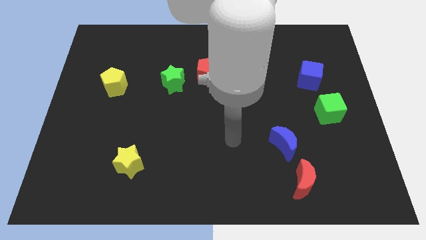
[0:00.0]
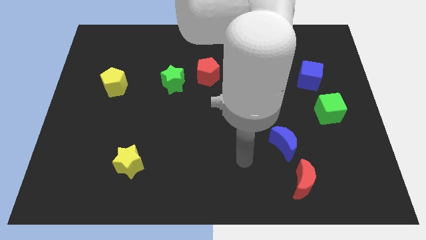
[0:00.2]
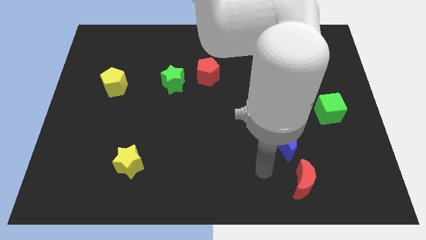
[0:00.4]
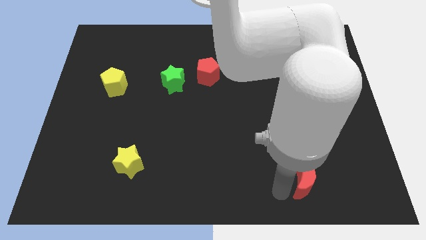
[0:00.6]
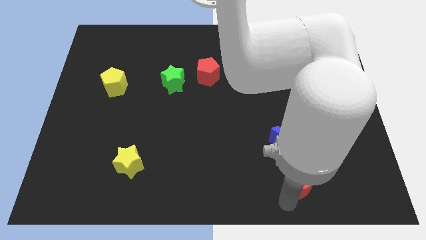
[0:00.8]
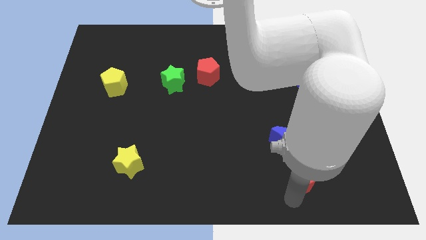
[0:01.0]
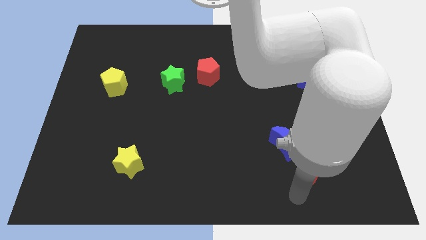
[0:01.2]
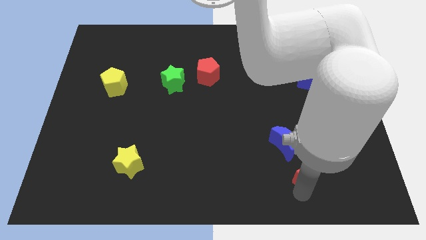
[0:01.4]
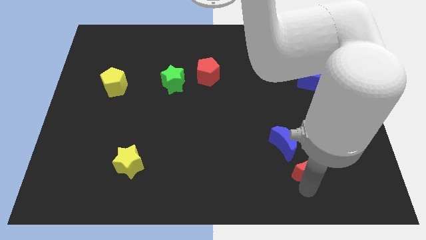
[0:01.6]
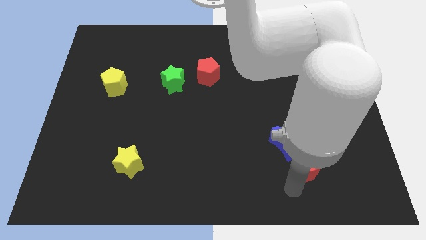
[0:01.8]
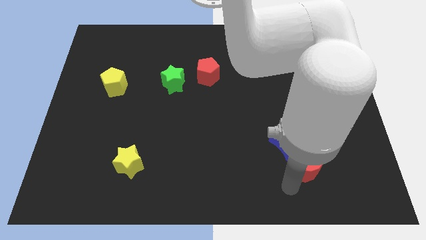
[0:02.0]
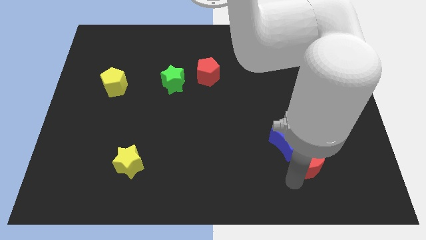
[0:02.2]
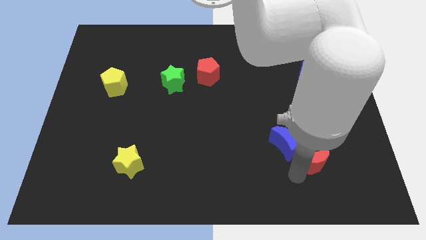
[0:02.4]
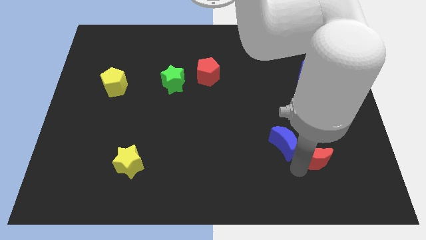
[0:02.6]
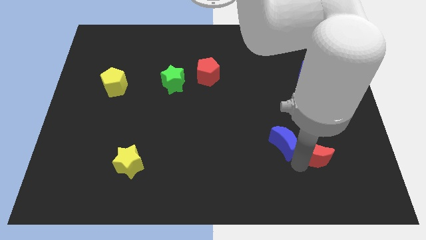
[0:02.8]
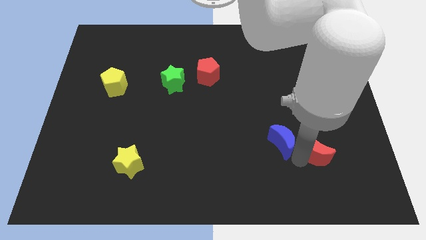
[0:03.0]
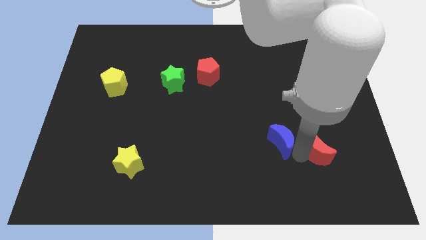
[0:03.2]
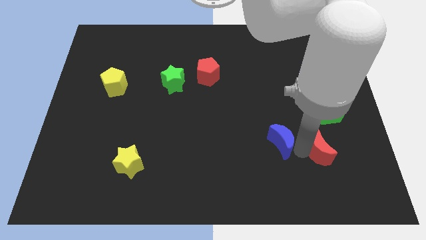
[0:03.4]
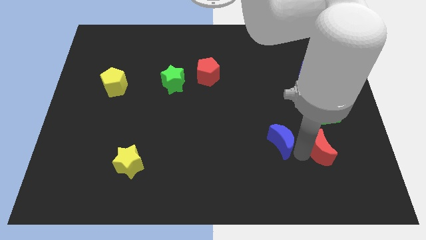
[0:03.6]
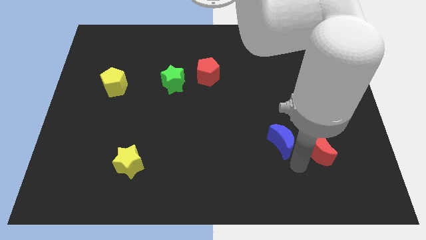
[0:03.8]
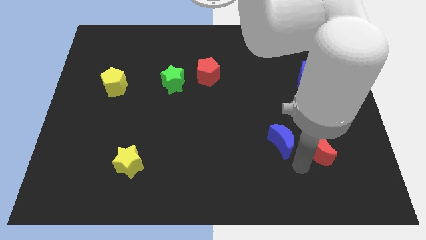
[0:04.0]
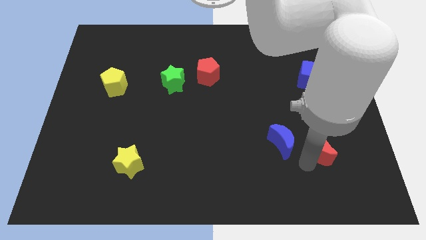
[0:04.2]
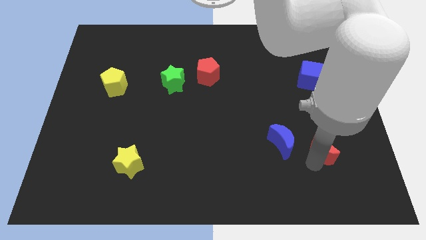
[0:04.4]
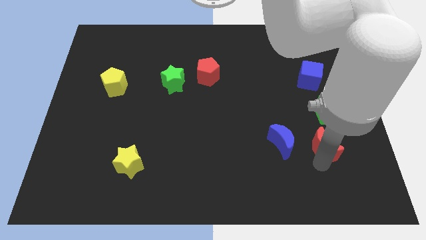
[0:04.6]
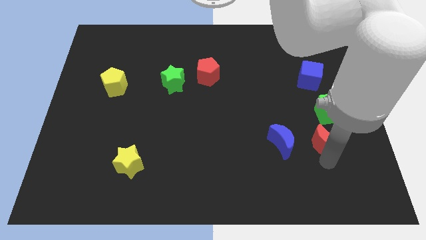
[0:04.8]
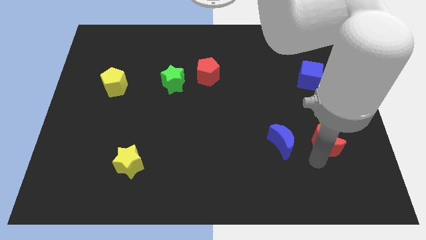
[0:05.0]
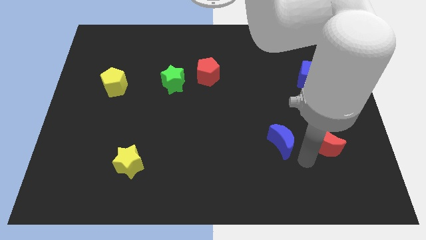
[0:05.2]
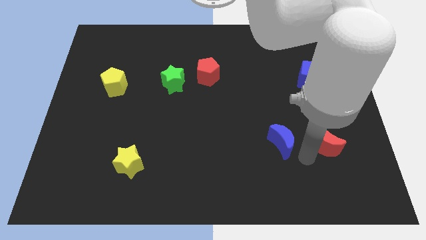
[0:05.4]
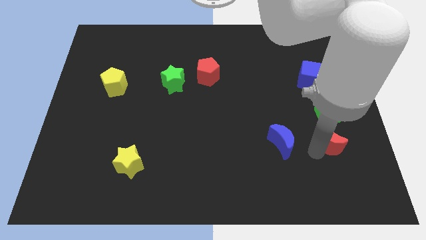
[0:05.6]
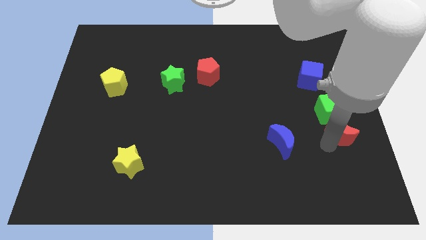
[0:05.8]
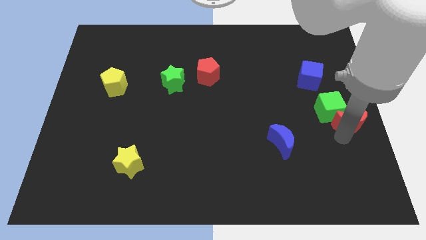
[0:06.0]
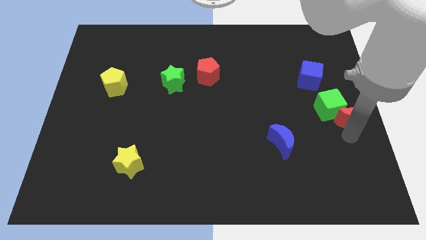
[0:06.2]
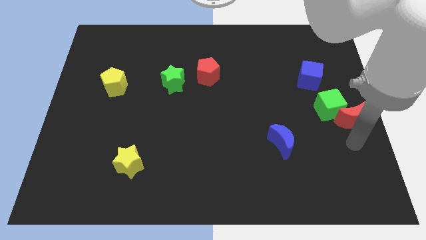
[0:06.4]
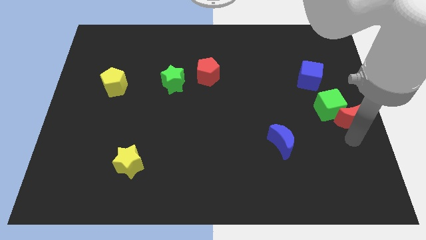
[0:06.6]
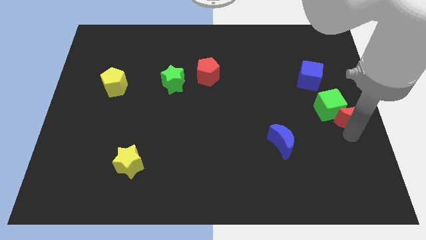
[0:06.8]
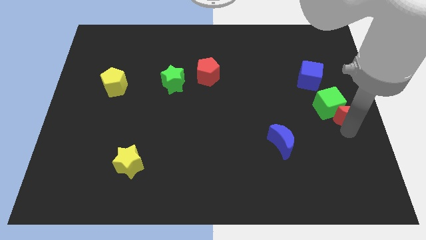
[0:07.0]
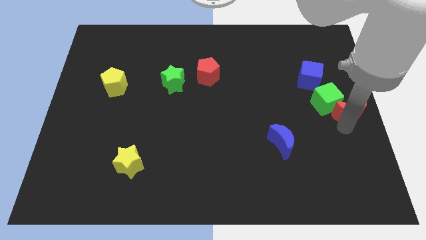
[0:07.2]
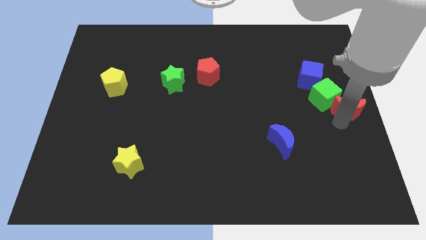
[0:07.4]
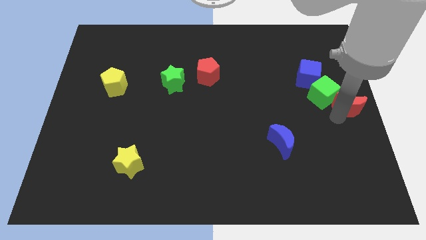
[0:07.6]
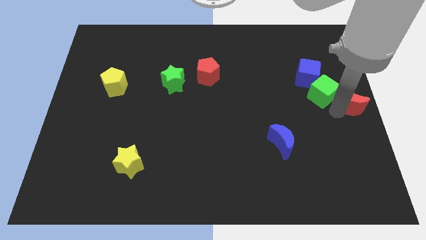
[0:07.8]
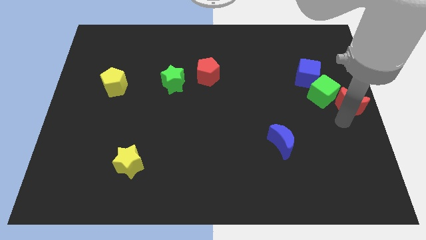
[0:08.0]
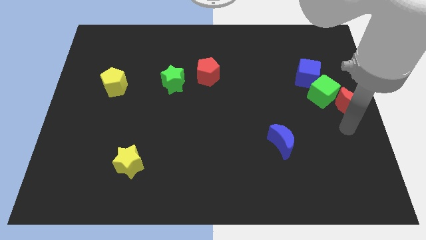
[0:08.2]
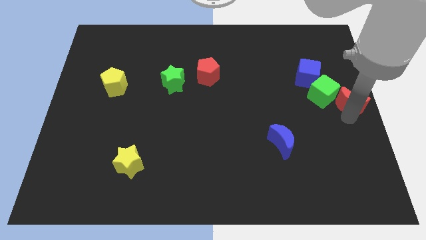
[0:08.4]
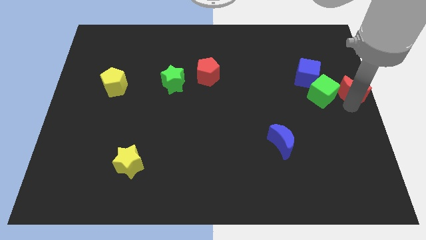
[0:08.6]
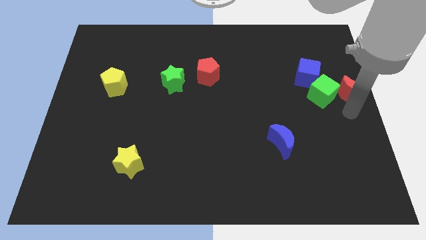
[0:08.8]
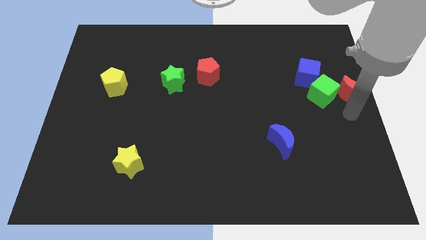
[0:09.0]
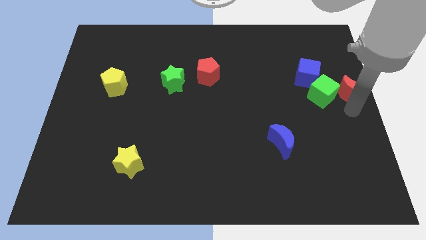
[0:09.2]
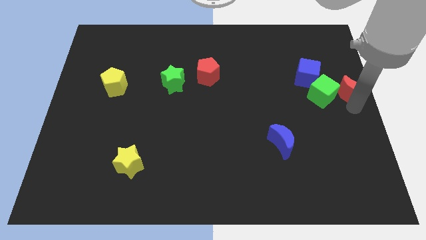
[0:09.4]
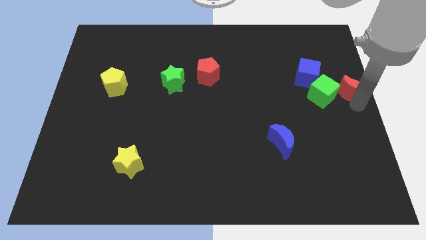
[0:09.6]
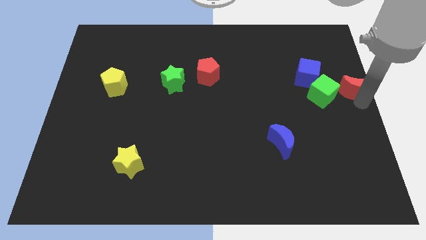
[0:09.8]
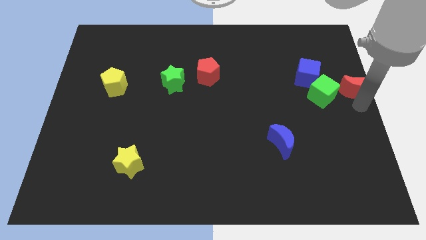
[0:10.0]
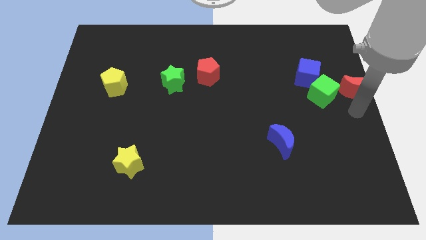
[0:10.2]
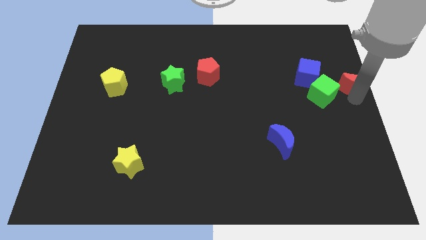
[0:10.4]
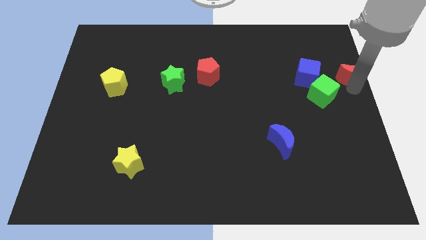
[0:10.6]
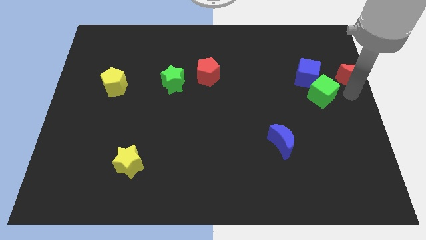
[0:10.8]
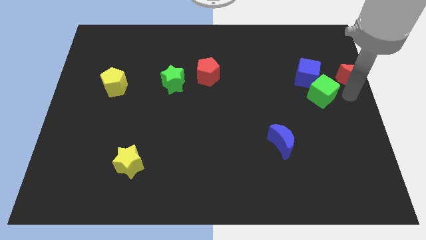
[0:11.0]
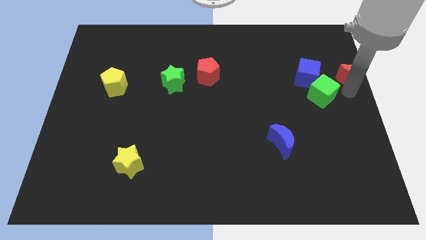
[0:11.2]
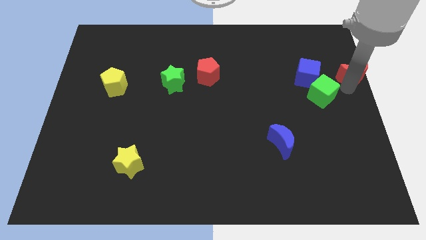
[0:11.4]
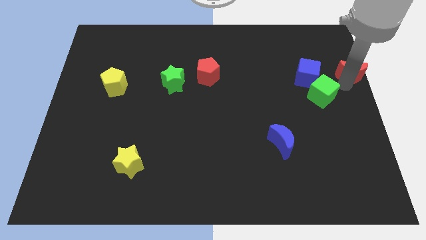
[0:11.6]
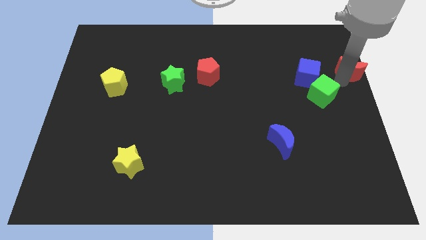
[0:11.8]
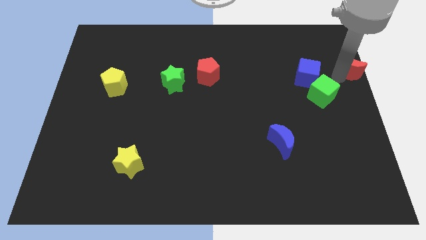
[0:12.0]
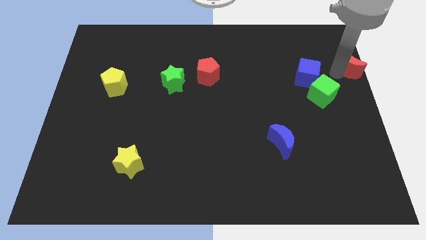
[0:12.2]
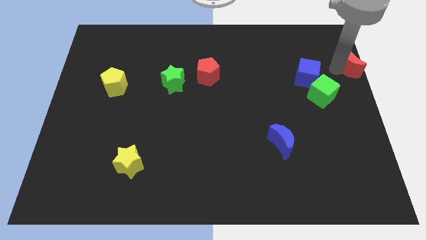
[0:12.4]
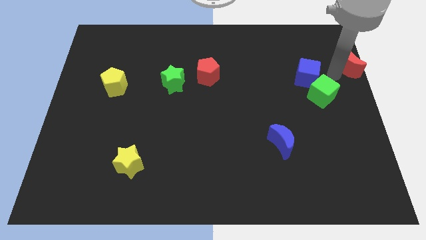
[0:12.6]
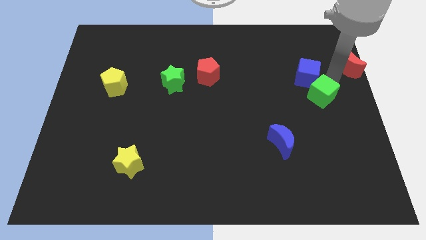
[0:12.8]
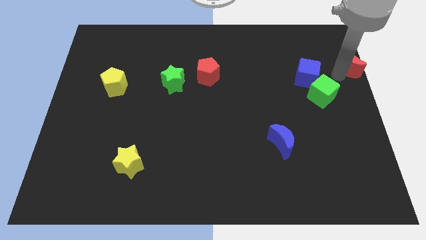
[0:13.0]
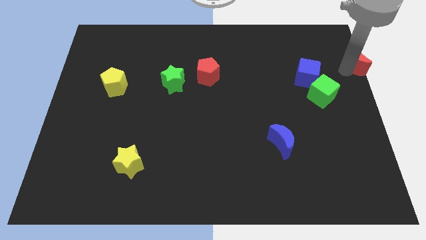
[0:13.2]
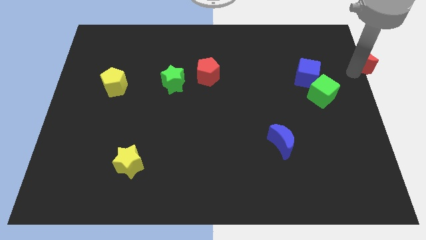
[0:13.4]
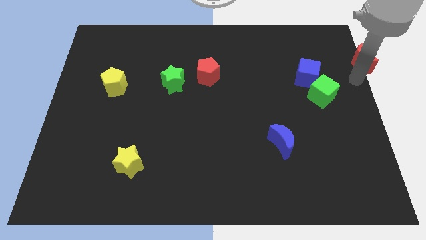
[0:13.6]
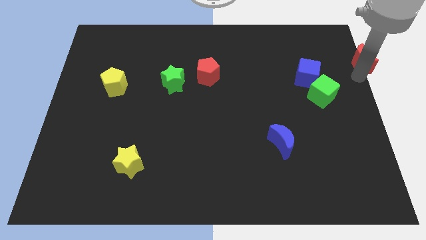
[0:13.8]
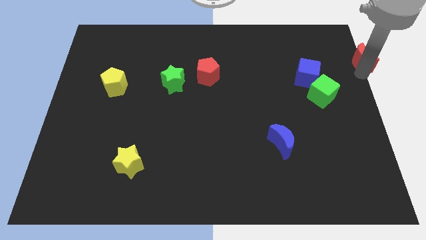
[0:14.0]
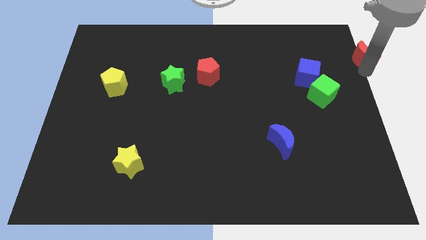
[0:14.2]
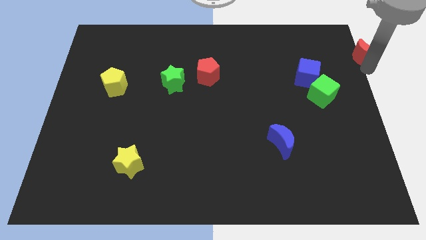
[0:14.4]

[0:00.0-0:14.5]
slide the red moon to the top right
